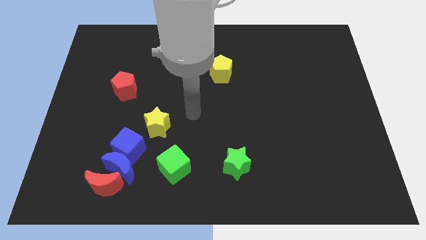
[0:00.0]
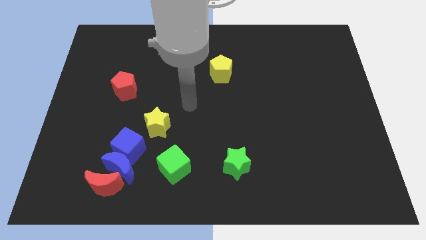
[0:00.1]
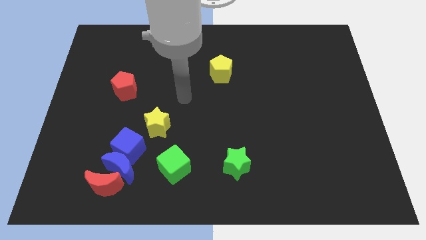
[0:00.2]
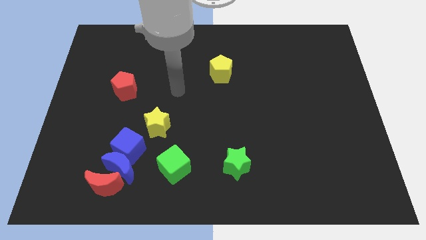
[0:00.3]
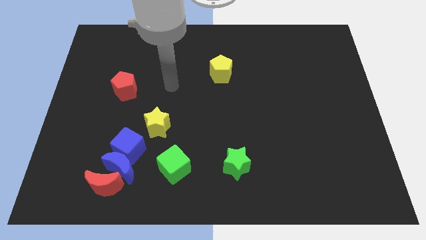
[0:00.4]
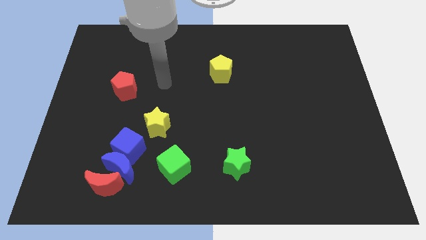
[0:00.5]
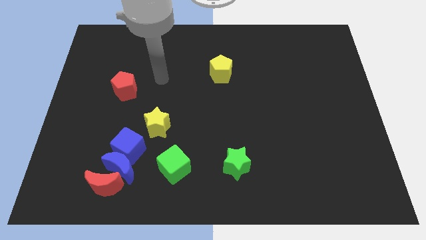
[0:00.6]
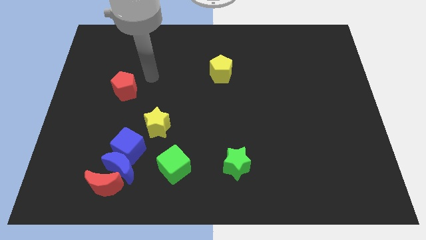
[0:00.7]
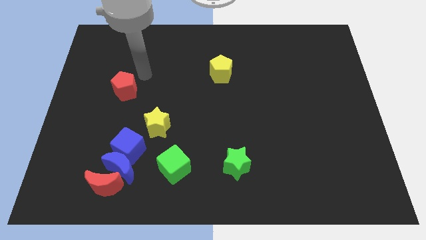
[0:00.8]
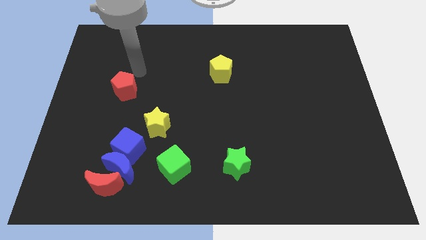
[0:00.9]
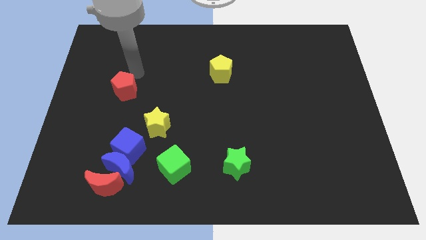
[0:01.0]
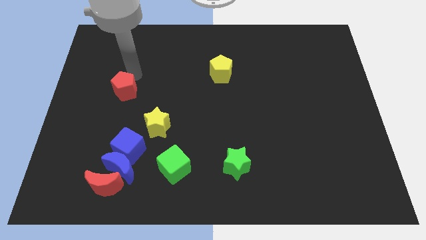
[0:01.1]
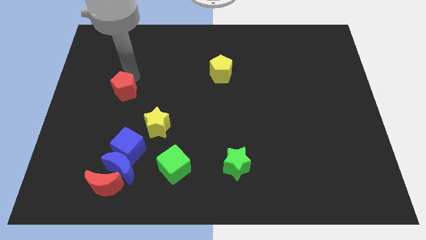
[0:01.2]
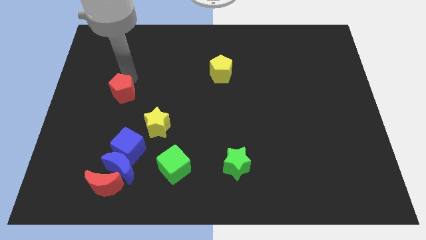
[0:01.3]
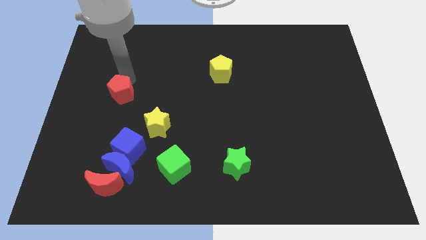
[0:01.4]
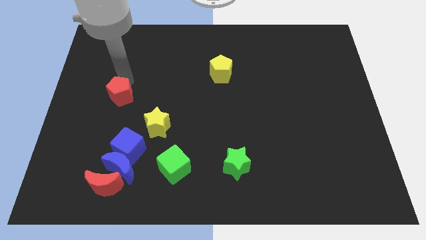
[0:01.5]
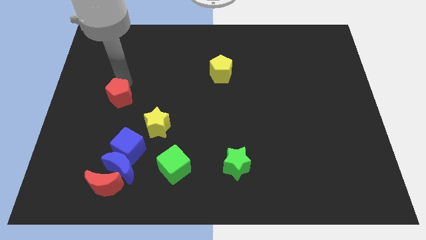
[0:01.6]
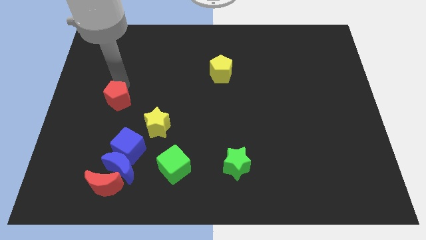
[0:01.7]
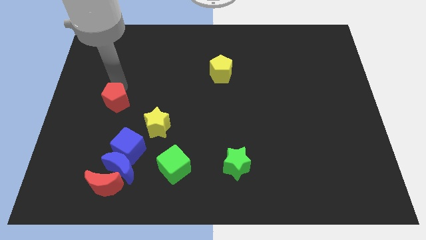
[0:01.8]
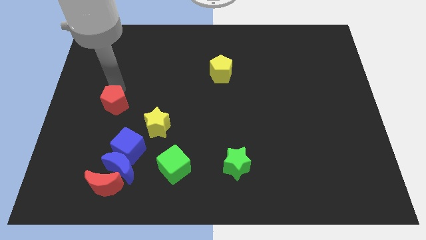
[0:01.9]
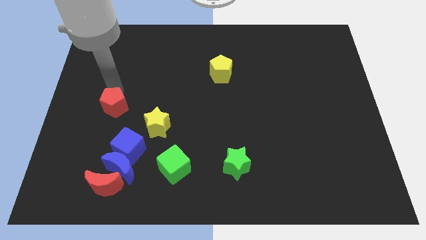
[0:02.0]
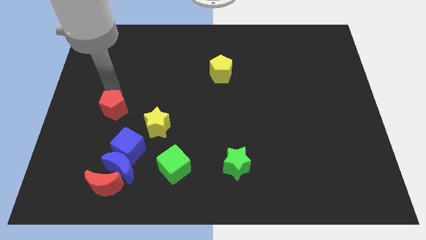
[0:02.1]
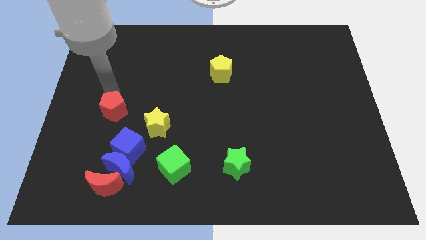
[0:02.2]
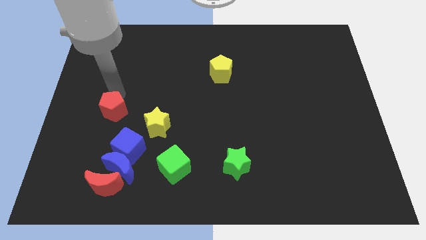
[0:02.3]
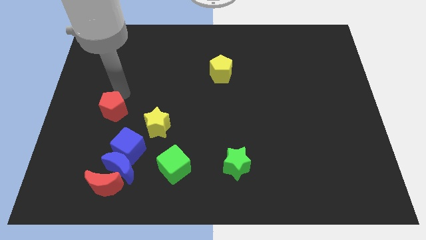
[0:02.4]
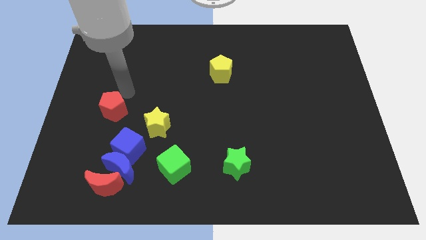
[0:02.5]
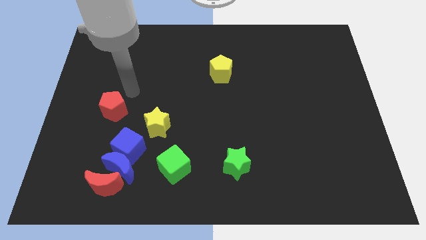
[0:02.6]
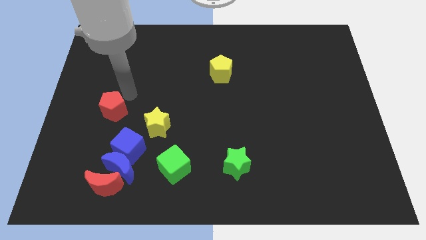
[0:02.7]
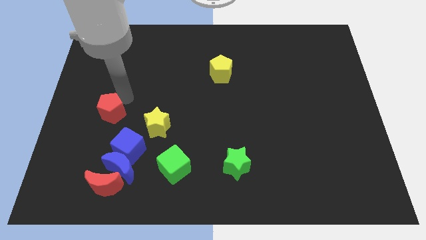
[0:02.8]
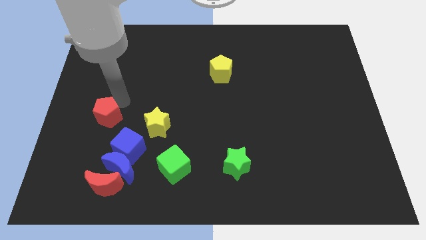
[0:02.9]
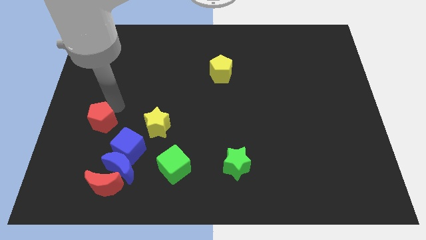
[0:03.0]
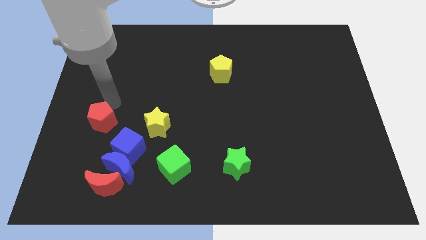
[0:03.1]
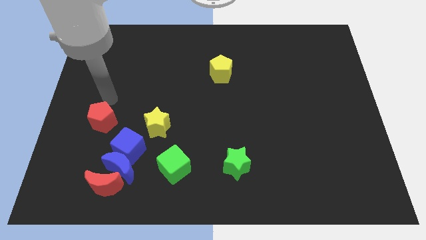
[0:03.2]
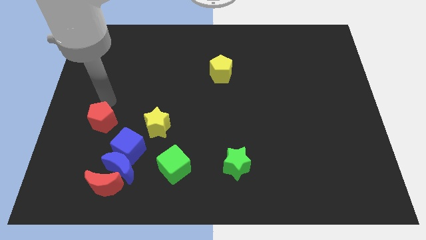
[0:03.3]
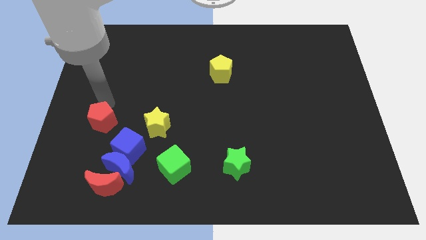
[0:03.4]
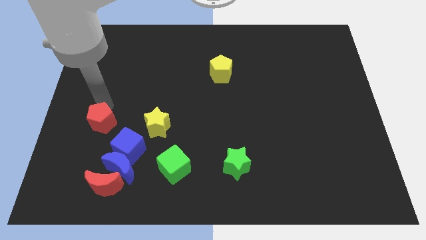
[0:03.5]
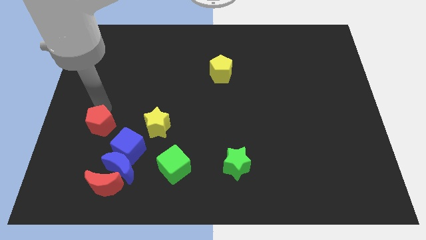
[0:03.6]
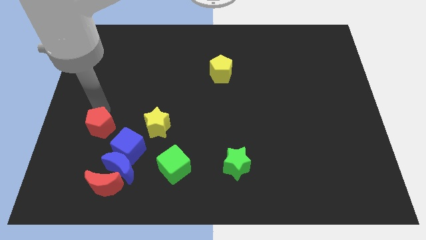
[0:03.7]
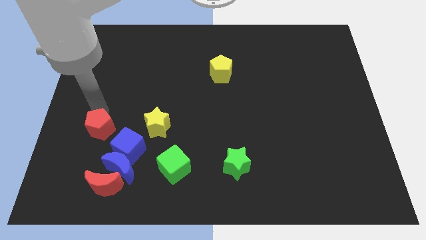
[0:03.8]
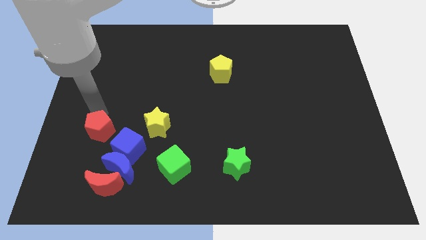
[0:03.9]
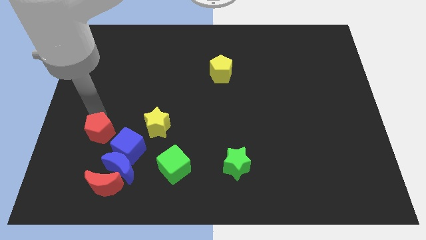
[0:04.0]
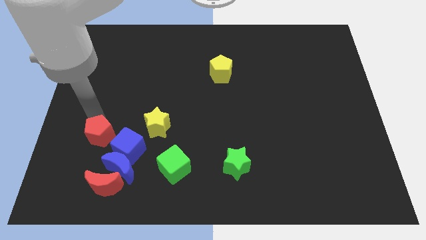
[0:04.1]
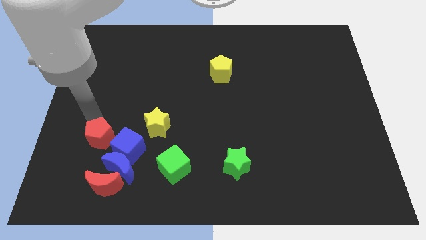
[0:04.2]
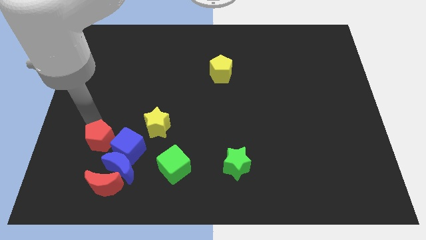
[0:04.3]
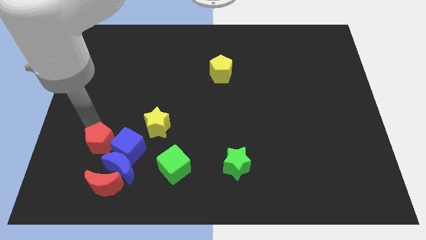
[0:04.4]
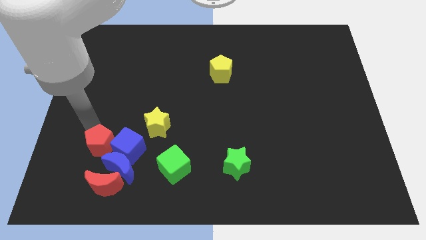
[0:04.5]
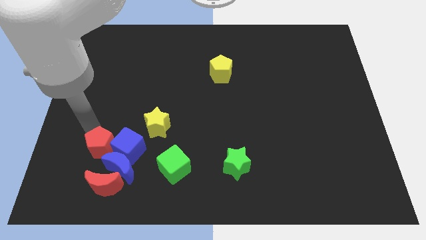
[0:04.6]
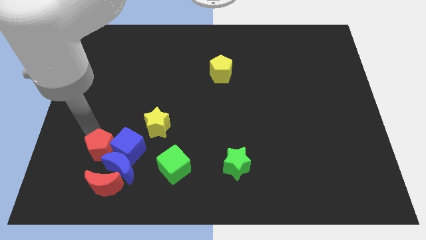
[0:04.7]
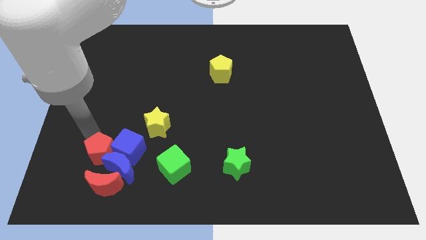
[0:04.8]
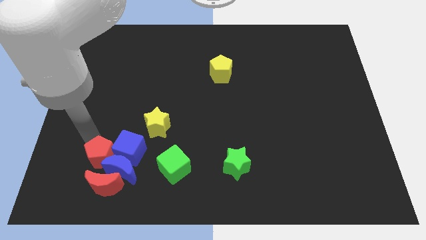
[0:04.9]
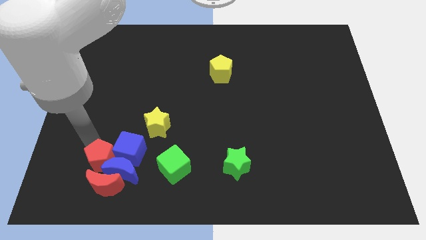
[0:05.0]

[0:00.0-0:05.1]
move the red pentagon next to the red moon

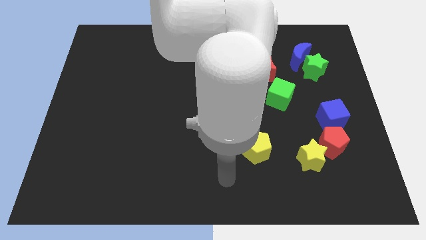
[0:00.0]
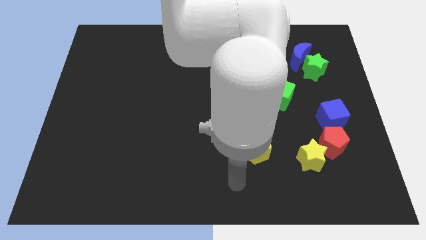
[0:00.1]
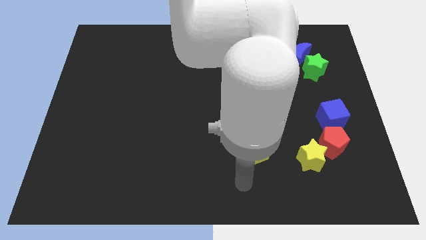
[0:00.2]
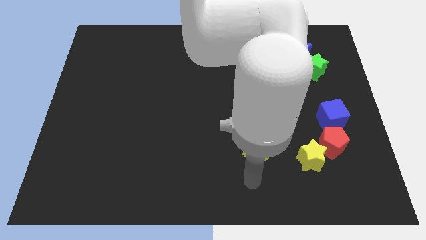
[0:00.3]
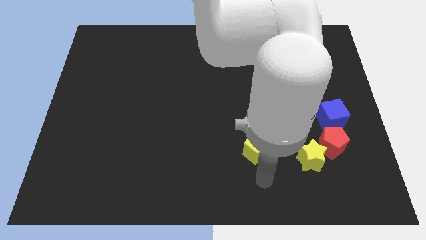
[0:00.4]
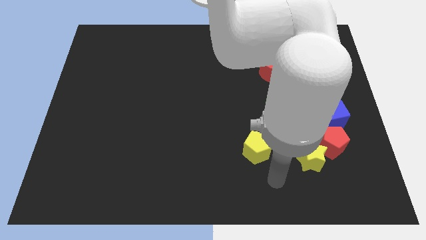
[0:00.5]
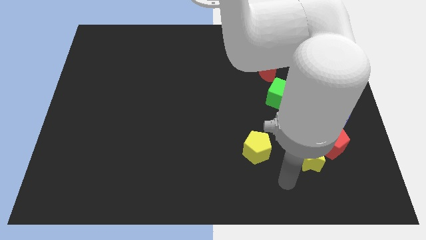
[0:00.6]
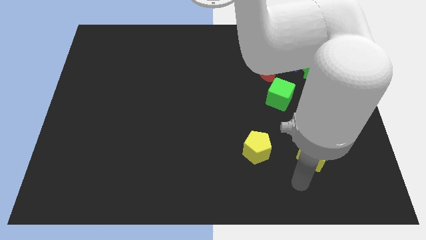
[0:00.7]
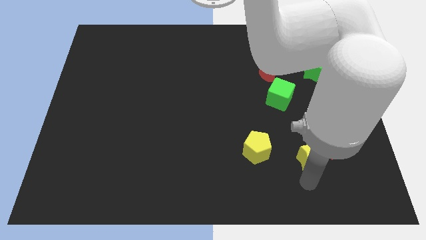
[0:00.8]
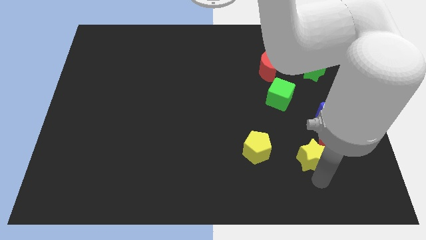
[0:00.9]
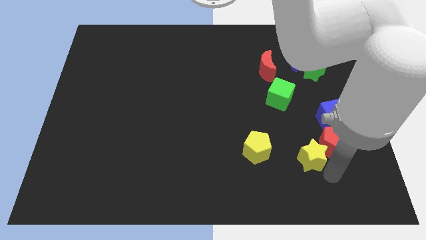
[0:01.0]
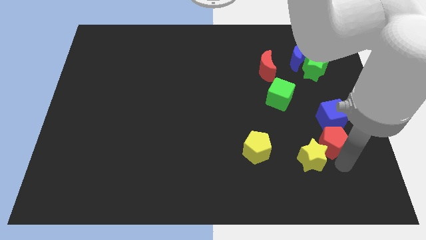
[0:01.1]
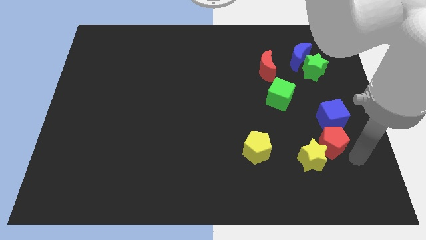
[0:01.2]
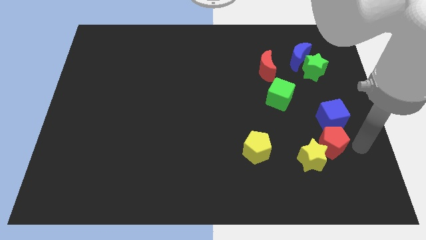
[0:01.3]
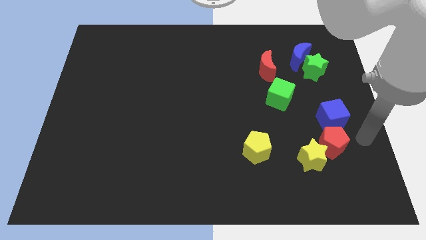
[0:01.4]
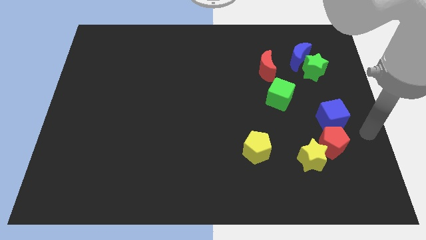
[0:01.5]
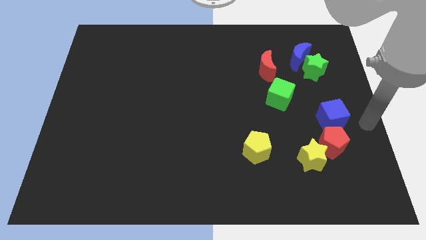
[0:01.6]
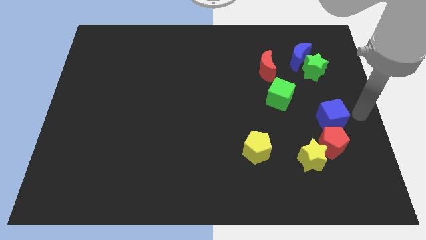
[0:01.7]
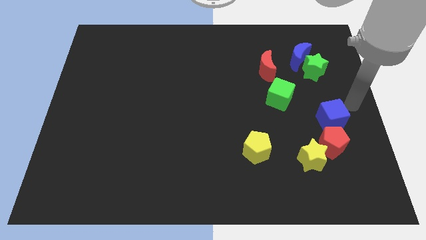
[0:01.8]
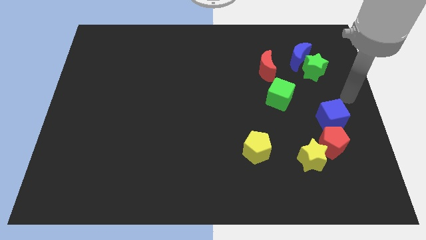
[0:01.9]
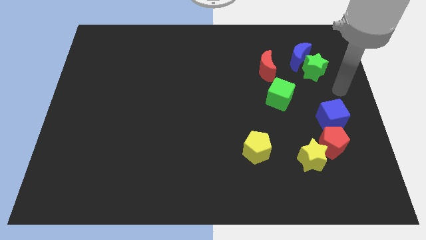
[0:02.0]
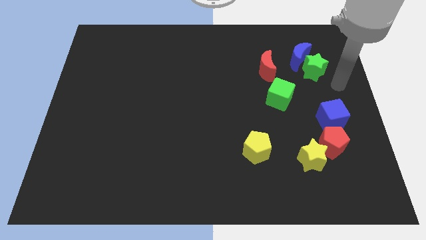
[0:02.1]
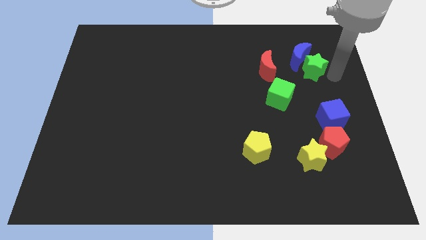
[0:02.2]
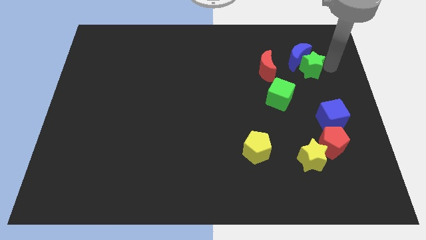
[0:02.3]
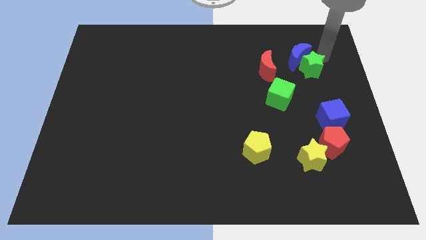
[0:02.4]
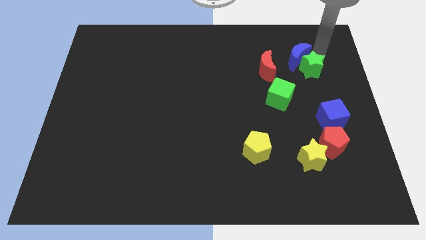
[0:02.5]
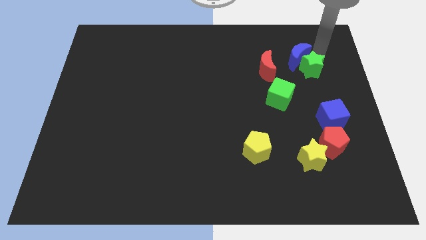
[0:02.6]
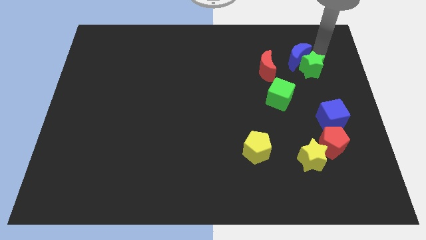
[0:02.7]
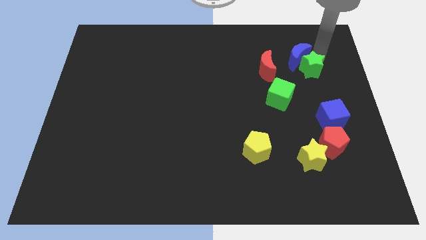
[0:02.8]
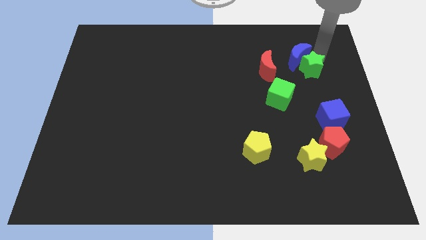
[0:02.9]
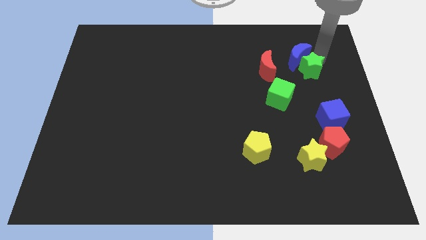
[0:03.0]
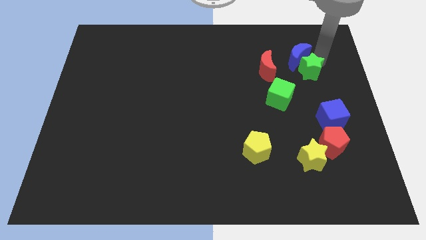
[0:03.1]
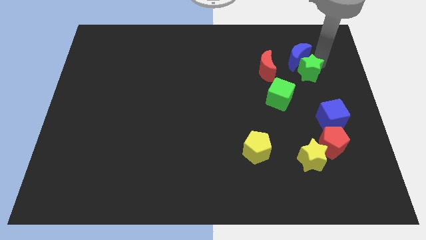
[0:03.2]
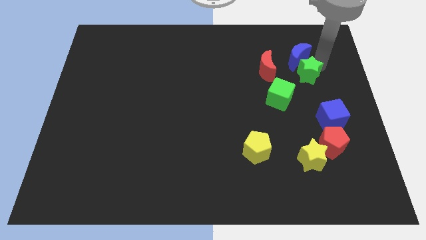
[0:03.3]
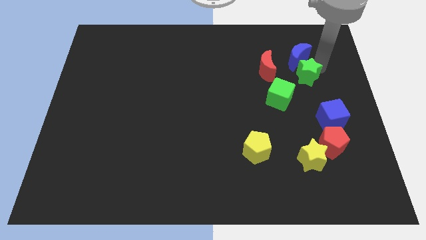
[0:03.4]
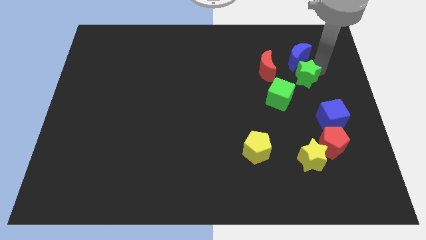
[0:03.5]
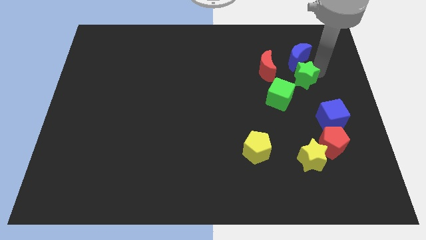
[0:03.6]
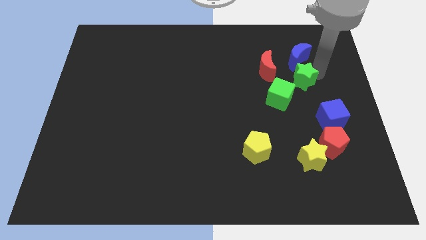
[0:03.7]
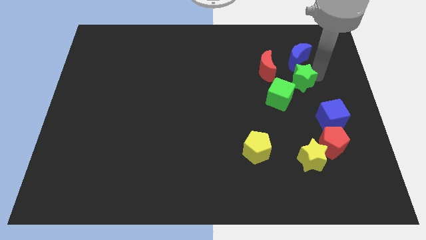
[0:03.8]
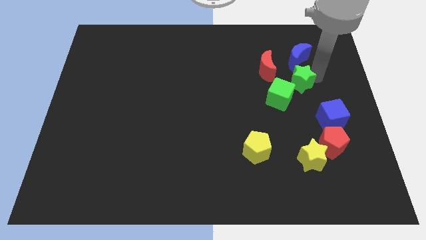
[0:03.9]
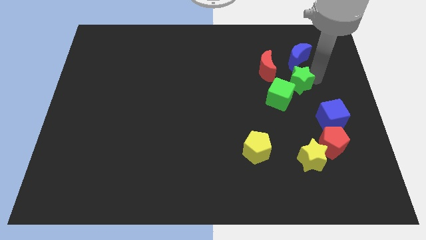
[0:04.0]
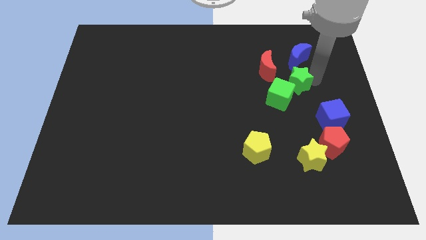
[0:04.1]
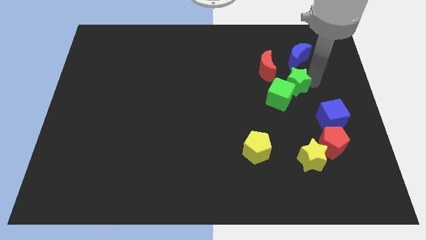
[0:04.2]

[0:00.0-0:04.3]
put the green star towards the green cube
